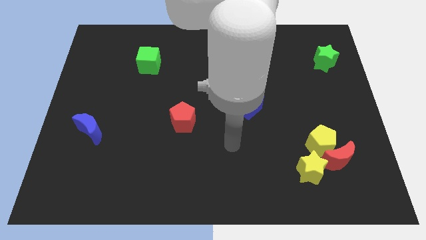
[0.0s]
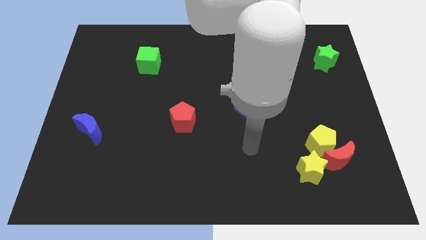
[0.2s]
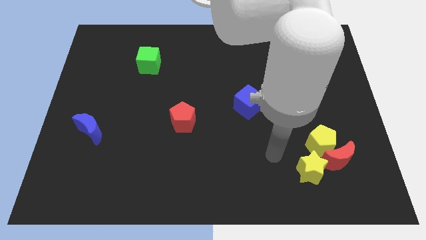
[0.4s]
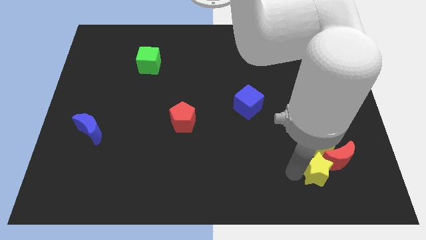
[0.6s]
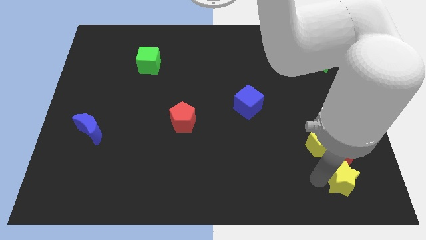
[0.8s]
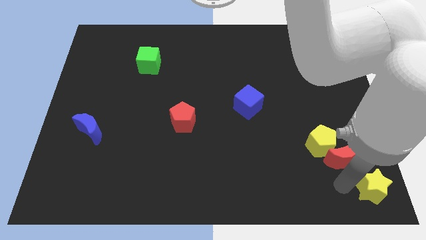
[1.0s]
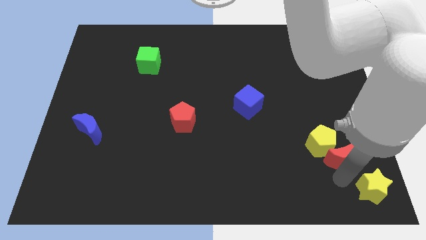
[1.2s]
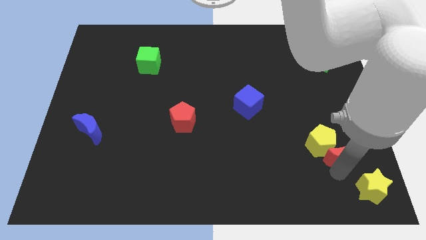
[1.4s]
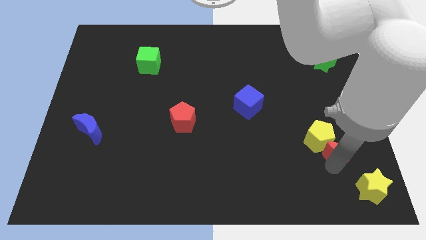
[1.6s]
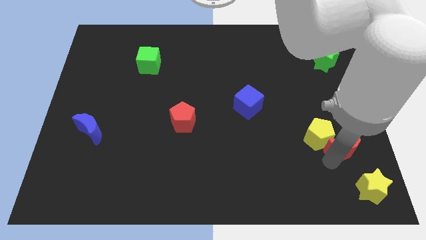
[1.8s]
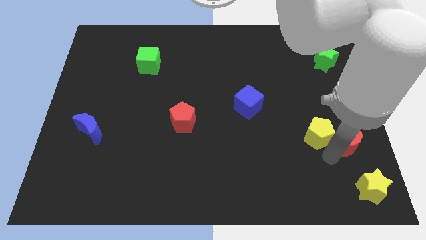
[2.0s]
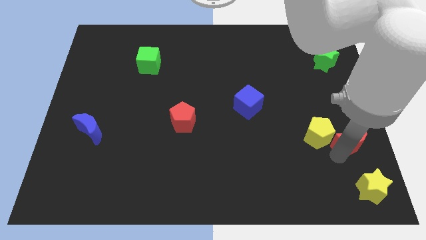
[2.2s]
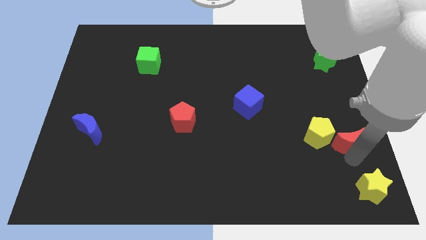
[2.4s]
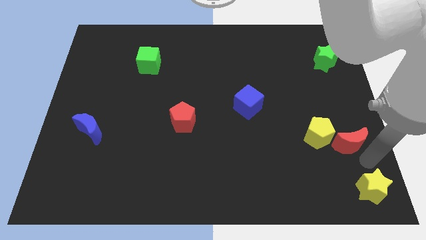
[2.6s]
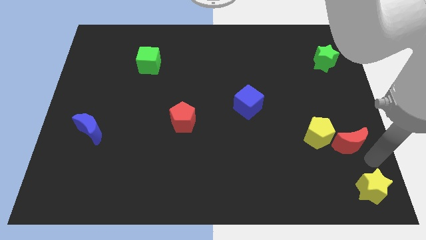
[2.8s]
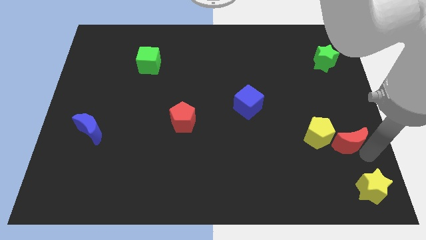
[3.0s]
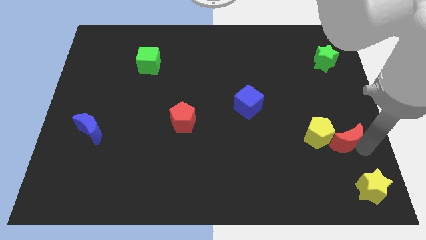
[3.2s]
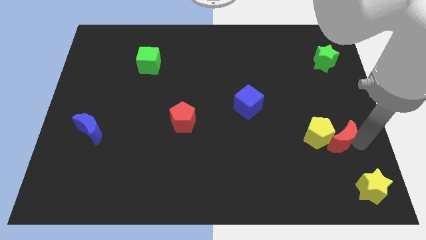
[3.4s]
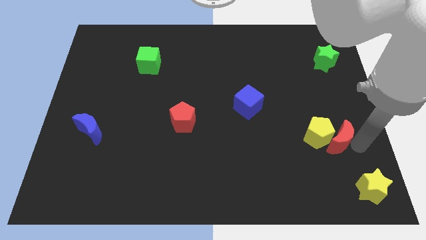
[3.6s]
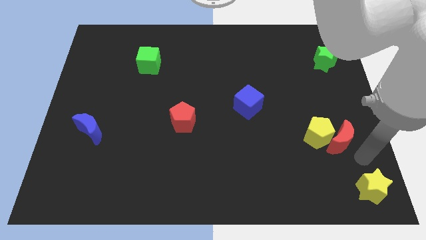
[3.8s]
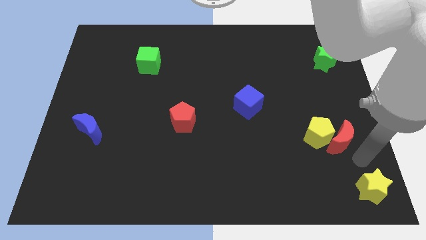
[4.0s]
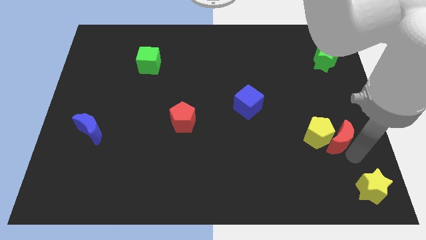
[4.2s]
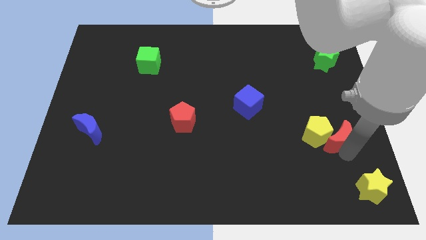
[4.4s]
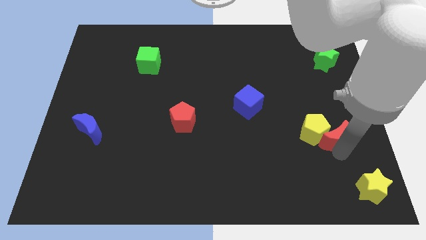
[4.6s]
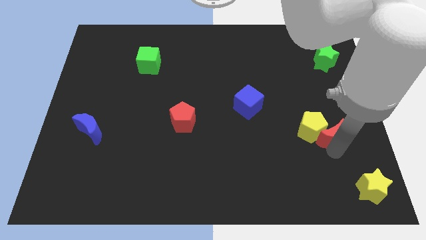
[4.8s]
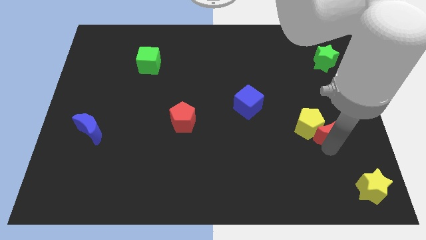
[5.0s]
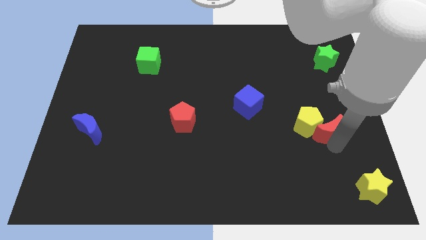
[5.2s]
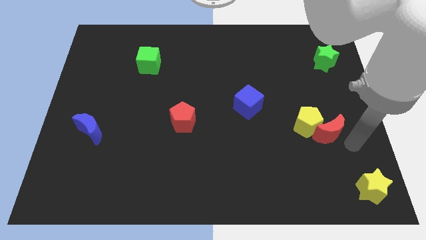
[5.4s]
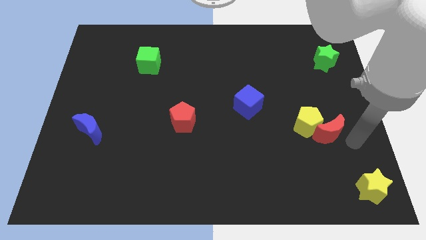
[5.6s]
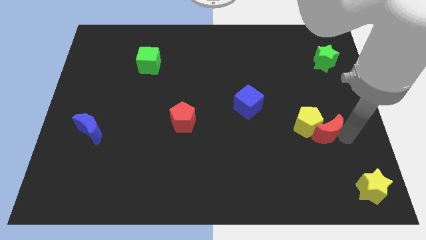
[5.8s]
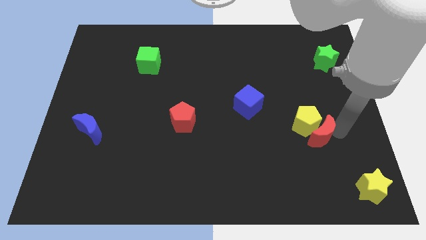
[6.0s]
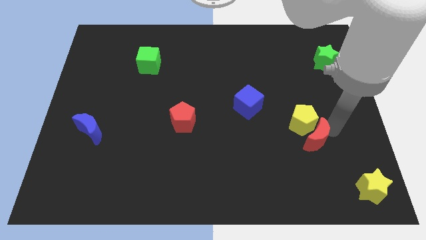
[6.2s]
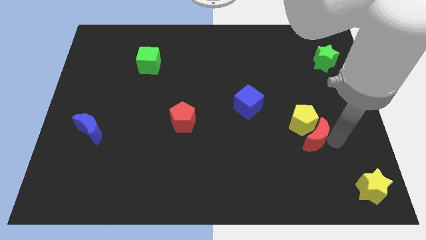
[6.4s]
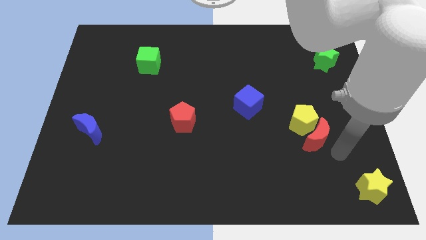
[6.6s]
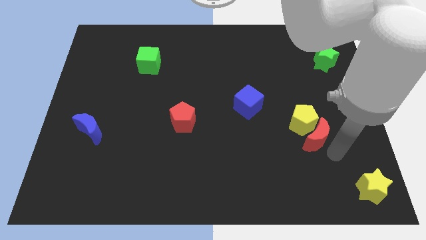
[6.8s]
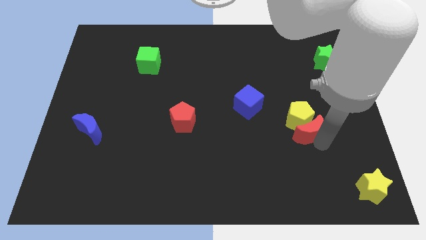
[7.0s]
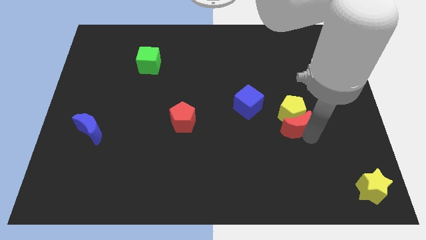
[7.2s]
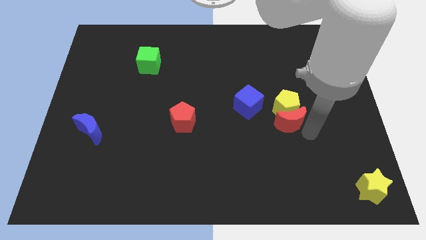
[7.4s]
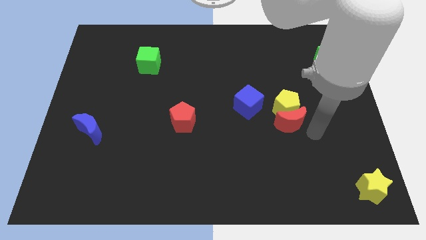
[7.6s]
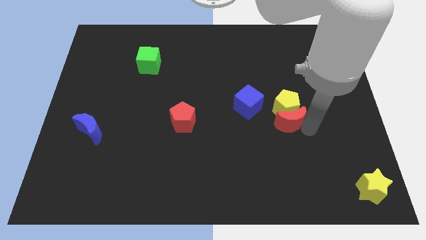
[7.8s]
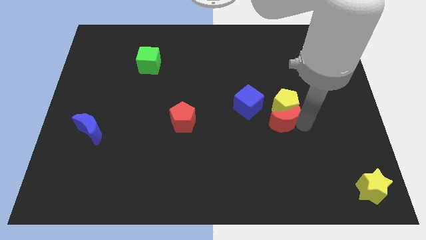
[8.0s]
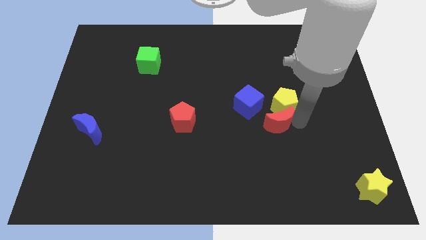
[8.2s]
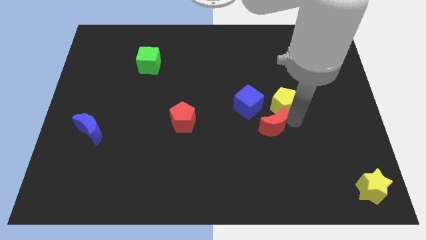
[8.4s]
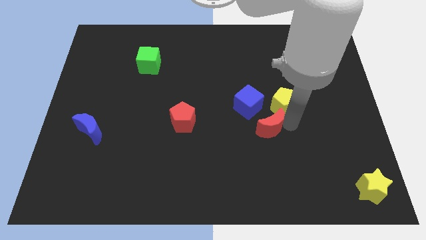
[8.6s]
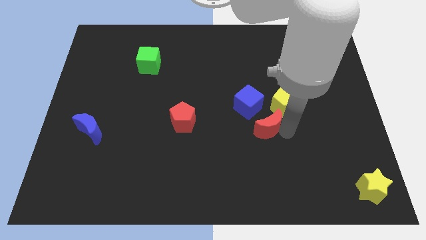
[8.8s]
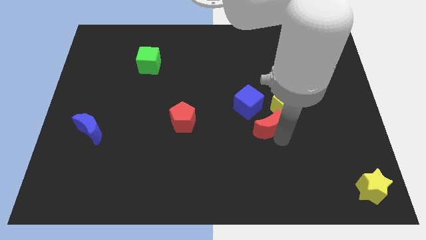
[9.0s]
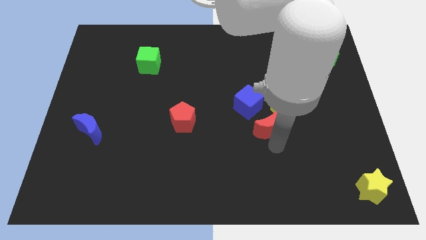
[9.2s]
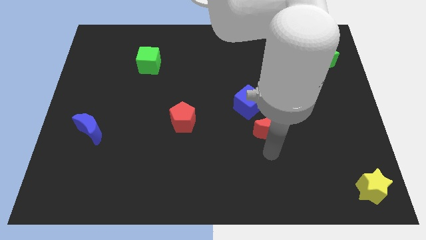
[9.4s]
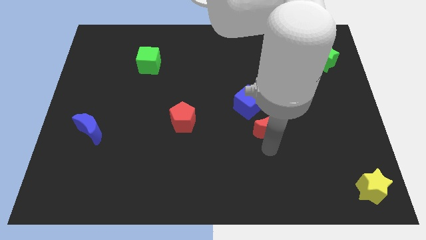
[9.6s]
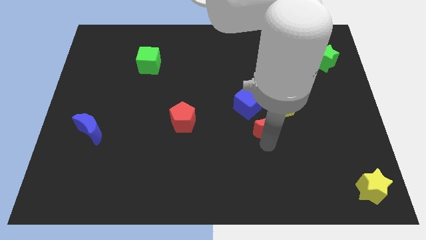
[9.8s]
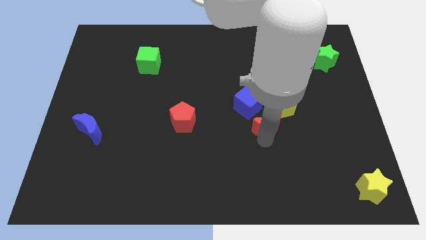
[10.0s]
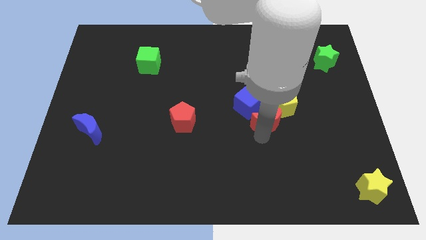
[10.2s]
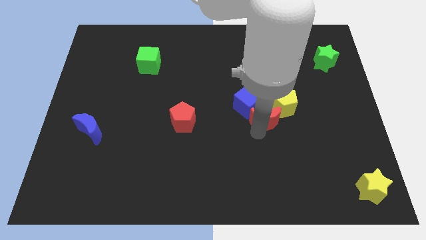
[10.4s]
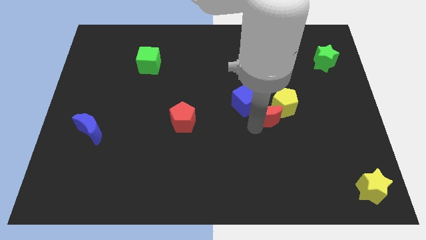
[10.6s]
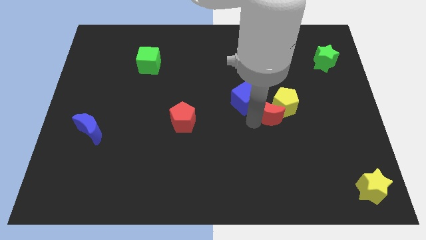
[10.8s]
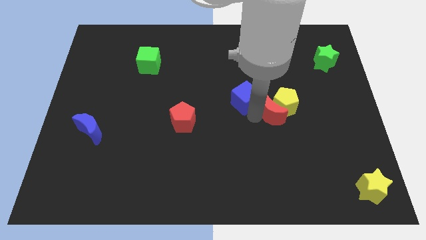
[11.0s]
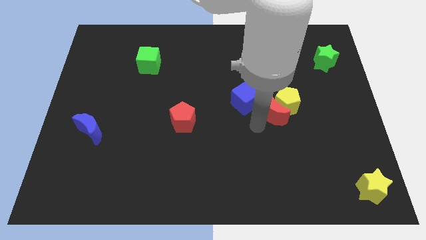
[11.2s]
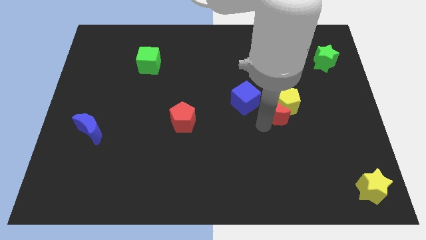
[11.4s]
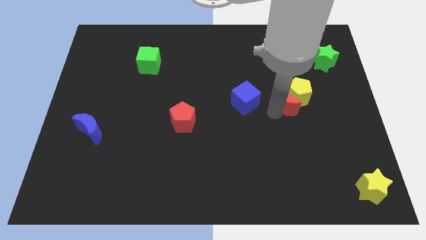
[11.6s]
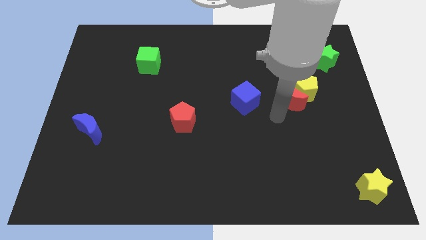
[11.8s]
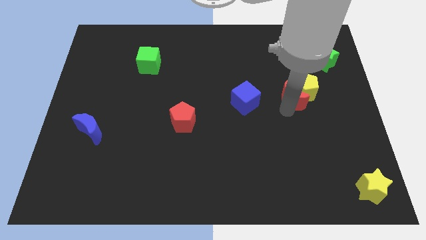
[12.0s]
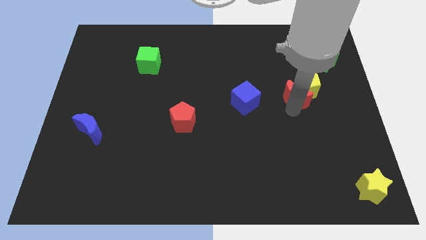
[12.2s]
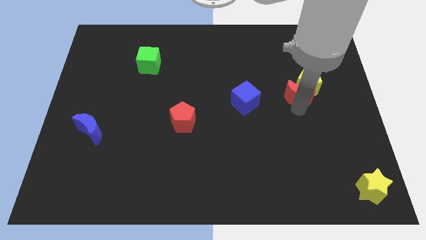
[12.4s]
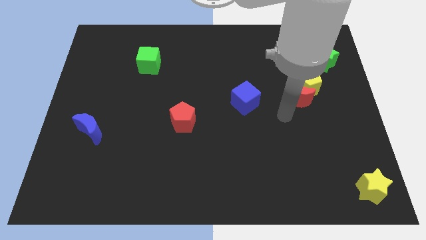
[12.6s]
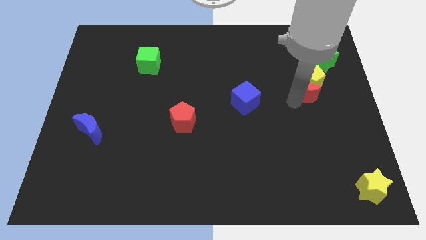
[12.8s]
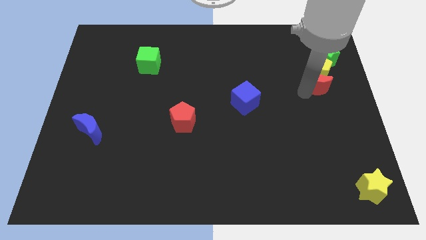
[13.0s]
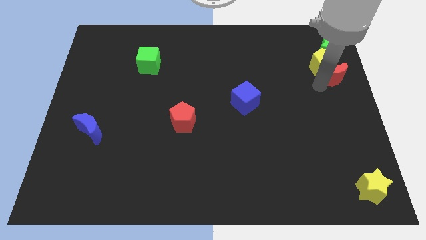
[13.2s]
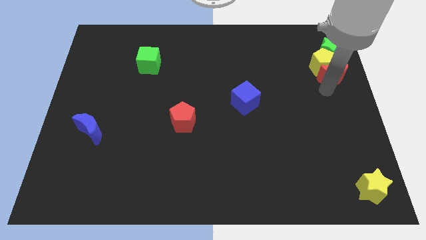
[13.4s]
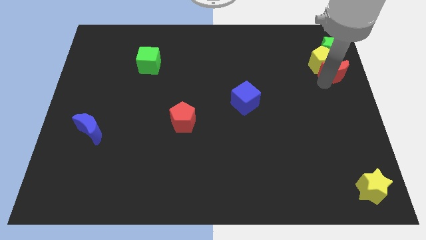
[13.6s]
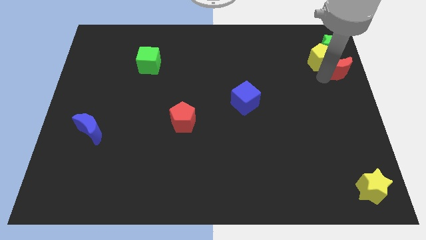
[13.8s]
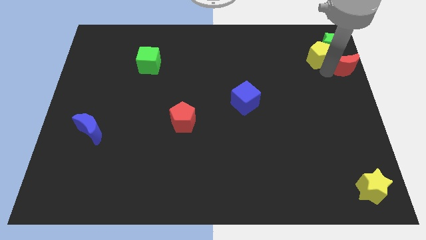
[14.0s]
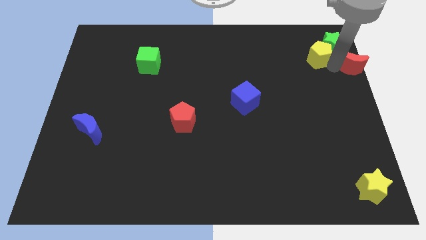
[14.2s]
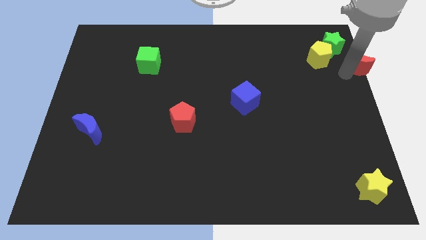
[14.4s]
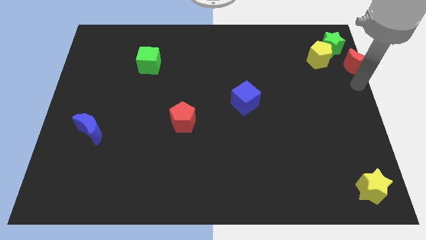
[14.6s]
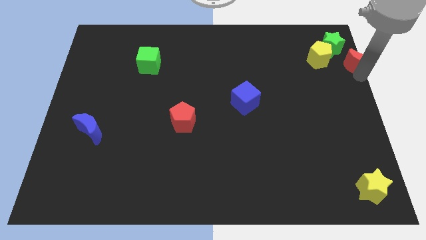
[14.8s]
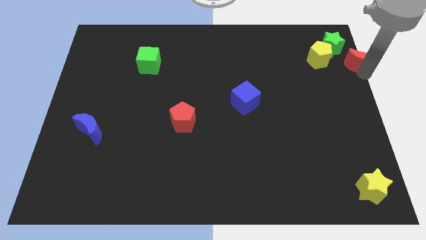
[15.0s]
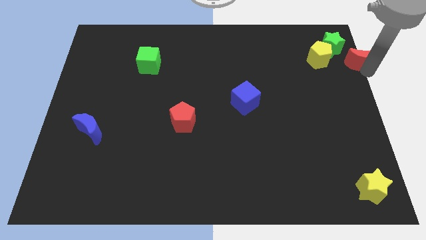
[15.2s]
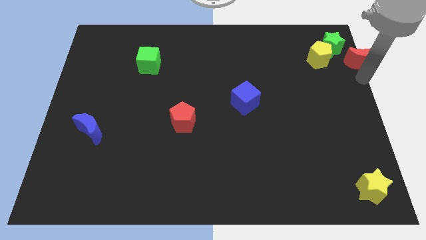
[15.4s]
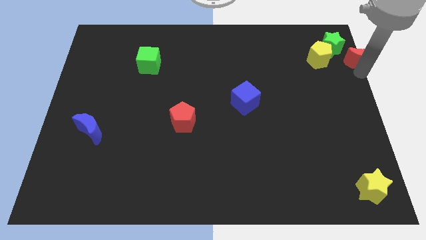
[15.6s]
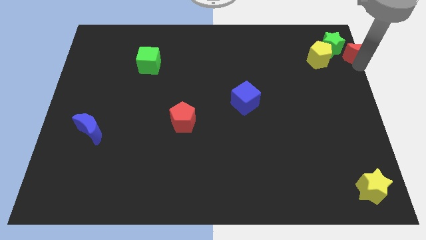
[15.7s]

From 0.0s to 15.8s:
push the red moon to the upper right corner

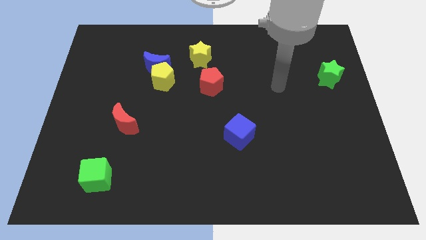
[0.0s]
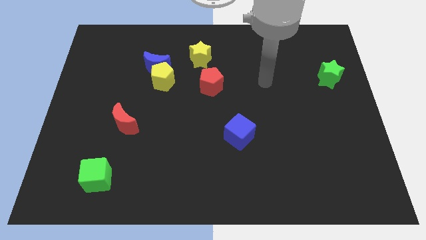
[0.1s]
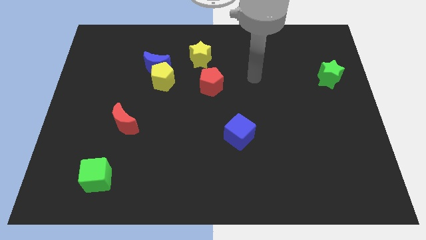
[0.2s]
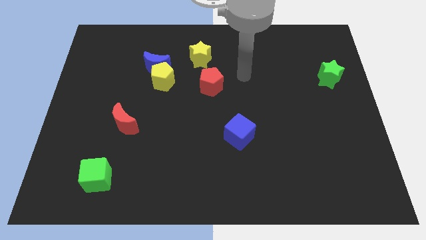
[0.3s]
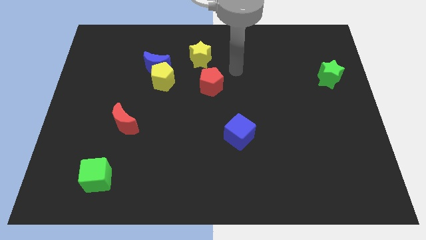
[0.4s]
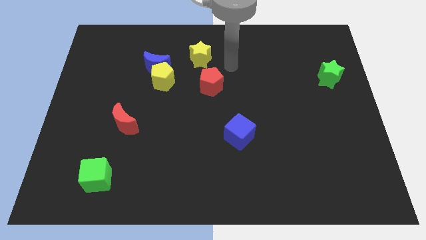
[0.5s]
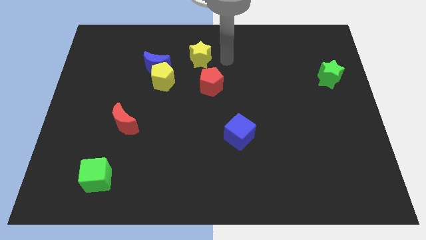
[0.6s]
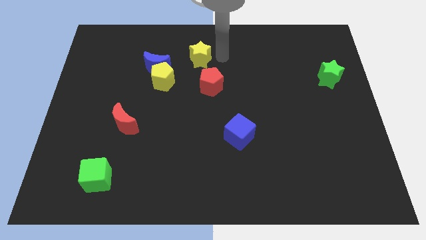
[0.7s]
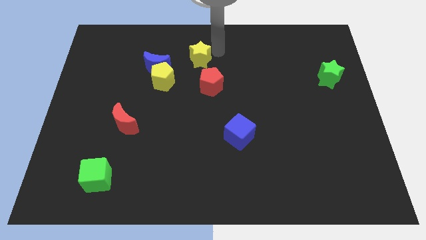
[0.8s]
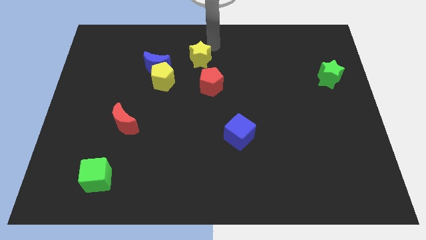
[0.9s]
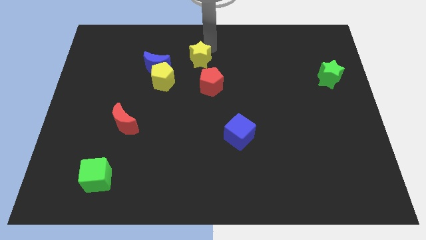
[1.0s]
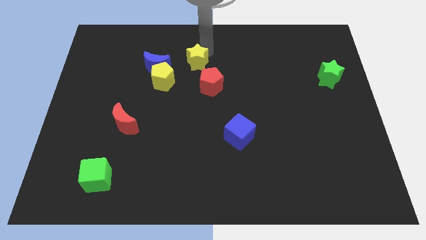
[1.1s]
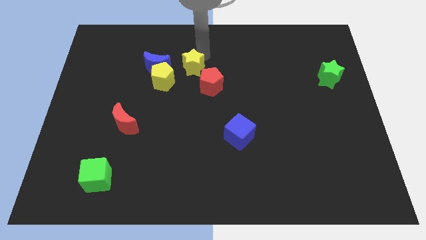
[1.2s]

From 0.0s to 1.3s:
put the yellow star to the center
